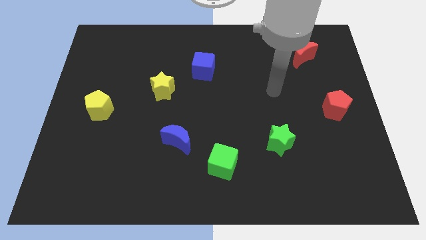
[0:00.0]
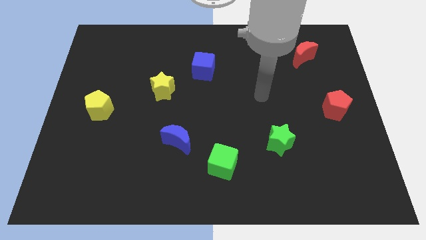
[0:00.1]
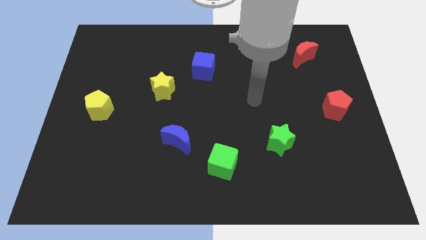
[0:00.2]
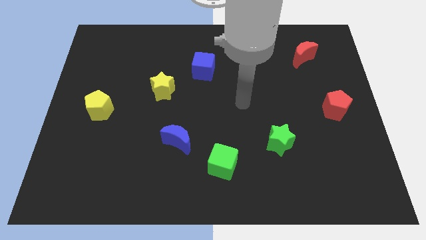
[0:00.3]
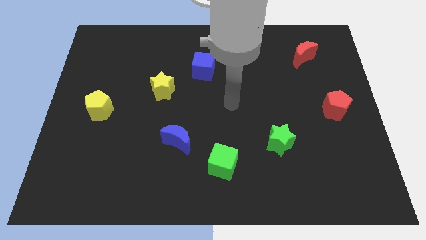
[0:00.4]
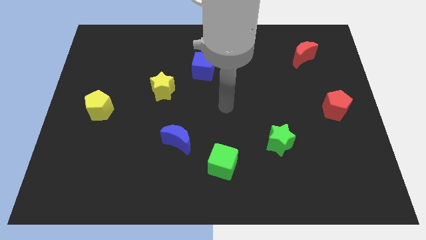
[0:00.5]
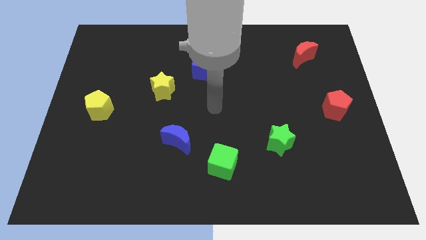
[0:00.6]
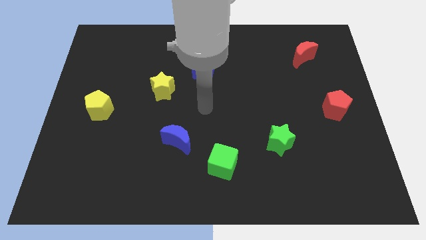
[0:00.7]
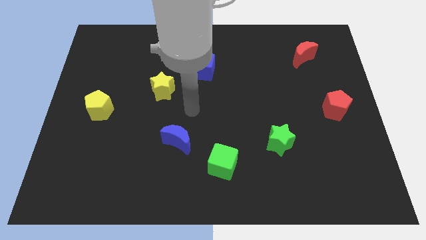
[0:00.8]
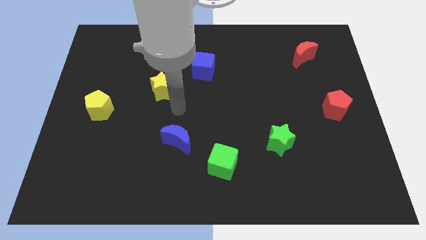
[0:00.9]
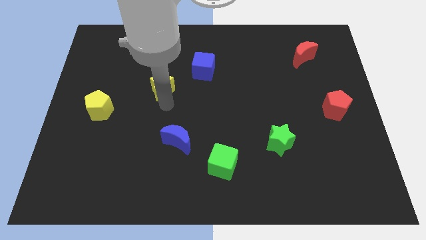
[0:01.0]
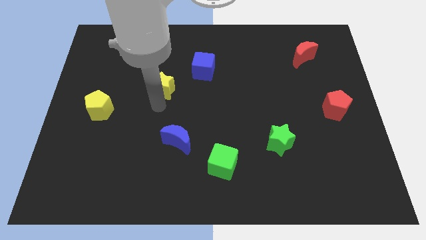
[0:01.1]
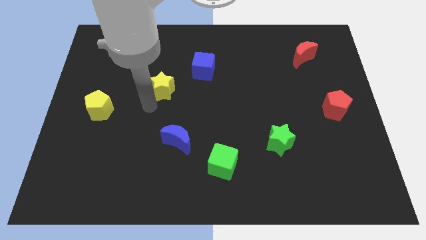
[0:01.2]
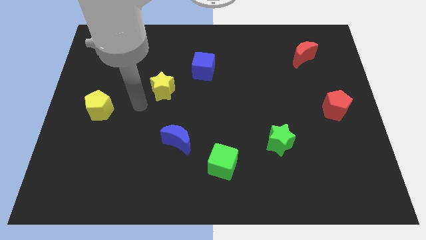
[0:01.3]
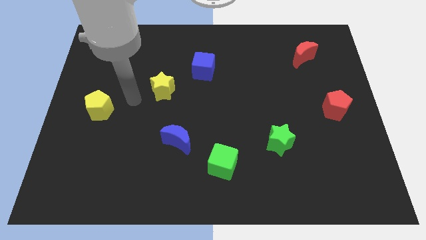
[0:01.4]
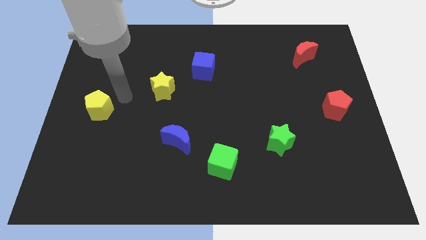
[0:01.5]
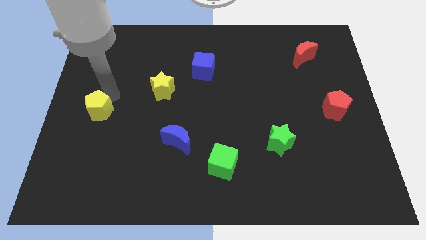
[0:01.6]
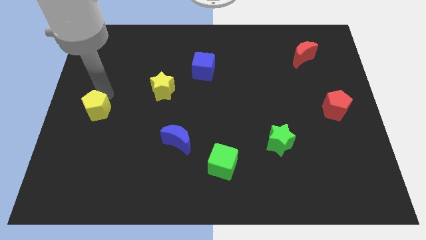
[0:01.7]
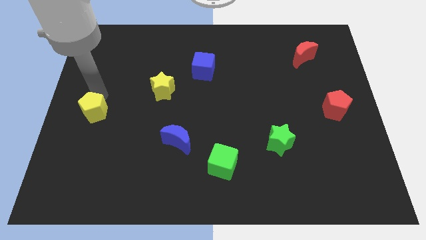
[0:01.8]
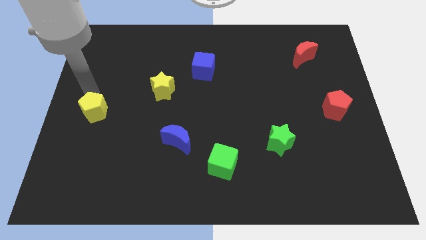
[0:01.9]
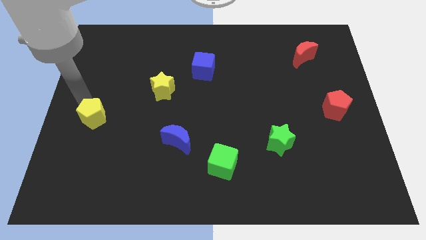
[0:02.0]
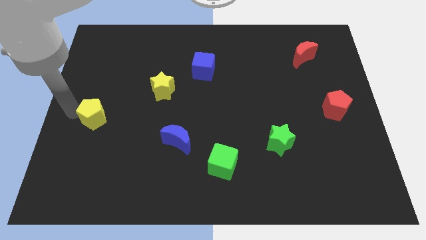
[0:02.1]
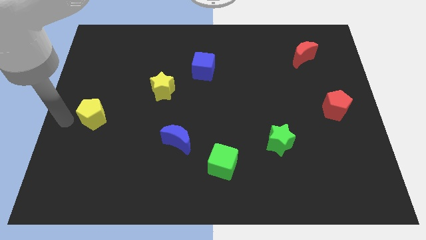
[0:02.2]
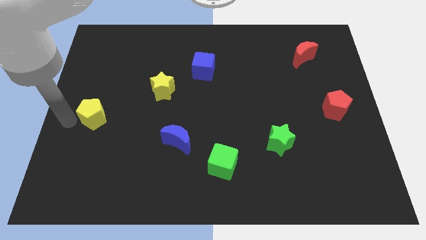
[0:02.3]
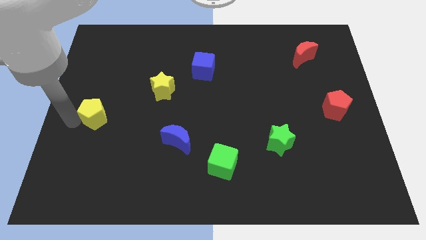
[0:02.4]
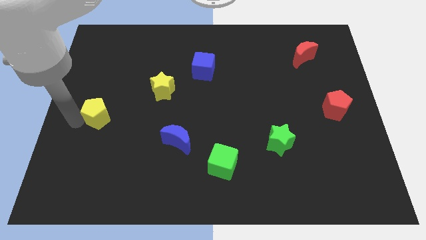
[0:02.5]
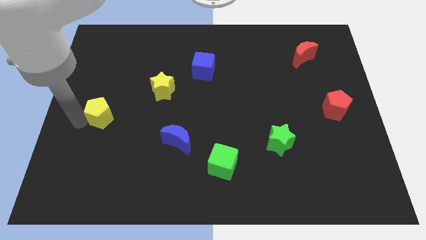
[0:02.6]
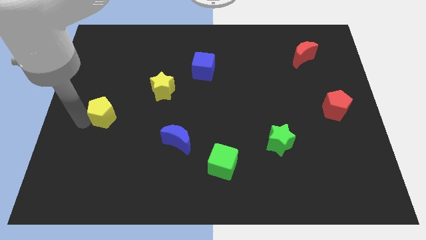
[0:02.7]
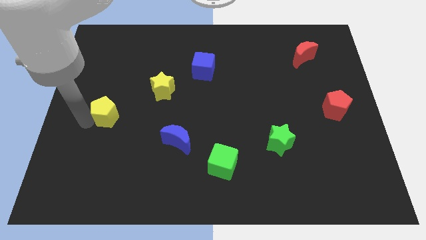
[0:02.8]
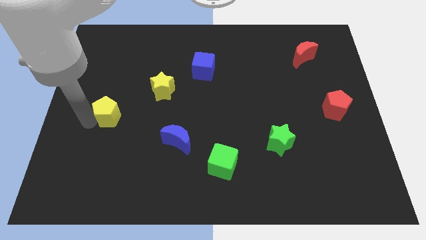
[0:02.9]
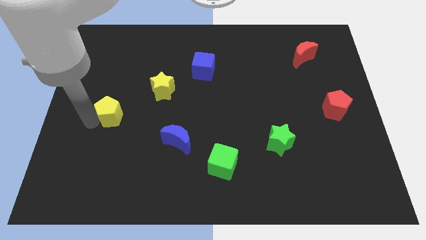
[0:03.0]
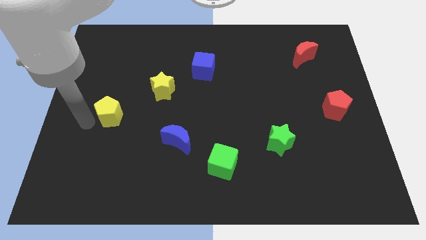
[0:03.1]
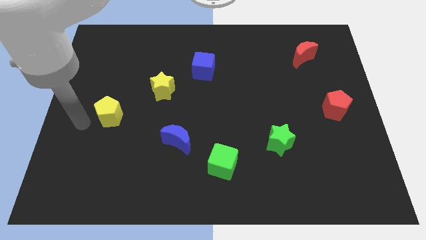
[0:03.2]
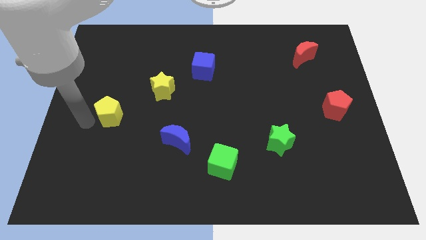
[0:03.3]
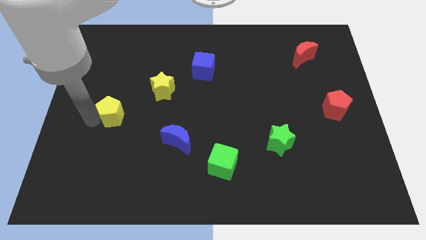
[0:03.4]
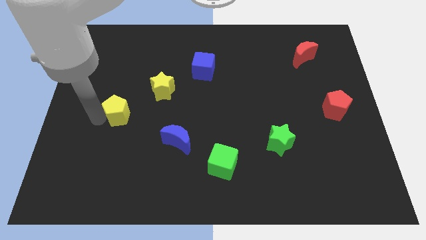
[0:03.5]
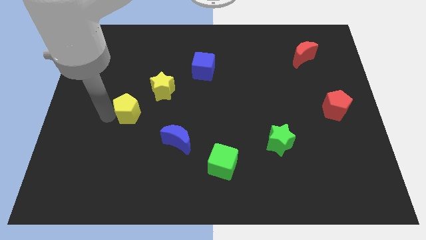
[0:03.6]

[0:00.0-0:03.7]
slide the yellow pentagon a little to the right

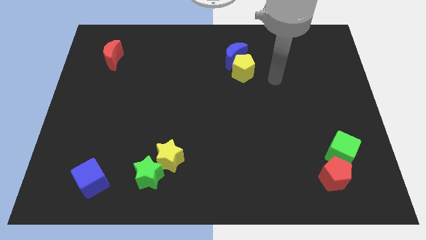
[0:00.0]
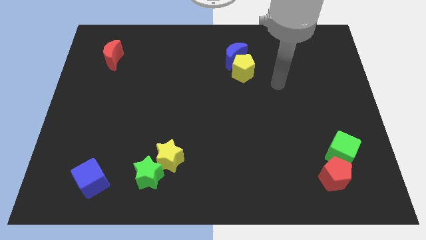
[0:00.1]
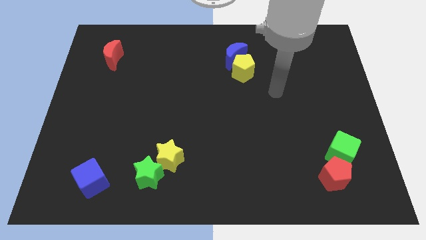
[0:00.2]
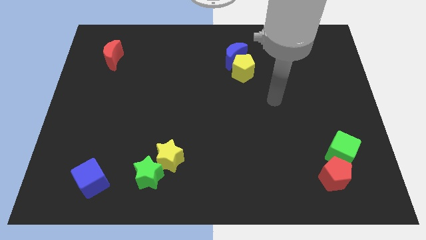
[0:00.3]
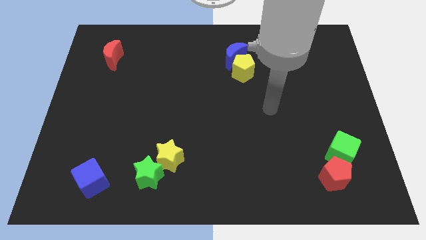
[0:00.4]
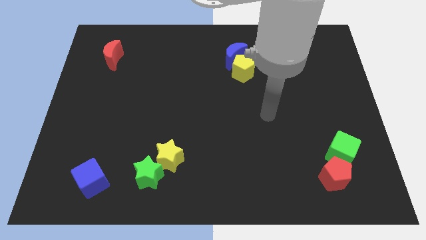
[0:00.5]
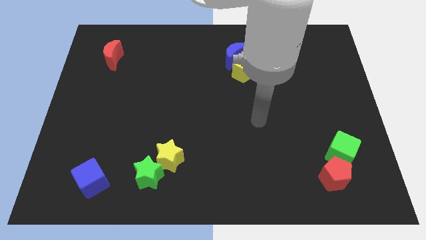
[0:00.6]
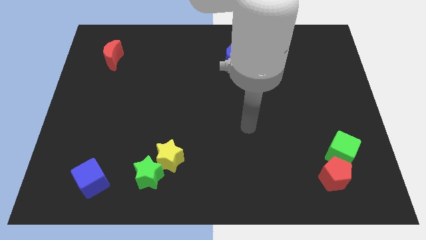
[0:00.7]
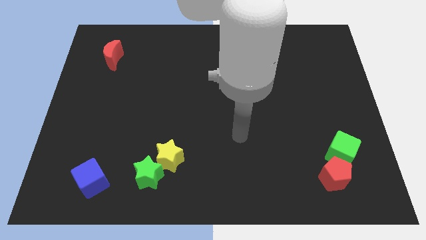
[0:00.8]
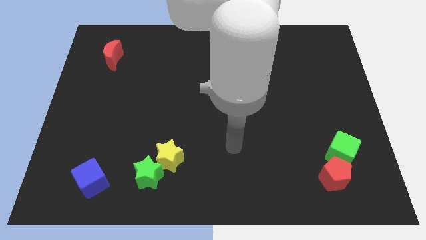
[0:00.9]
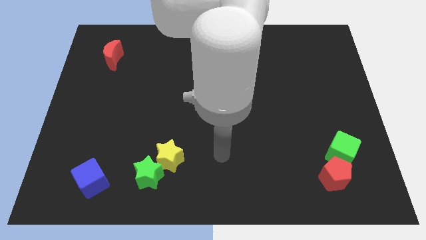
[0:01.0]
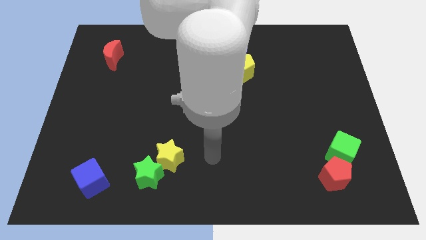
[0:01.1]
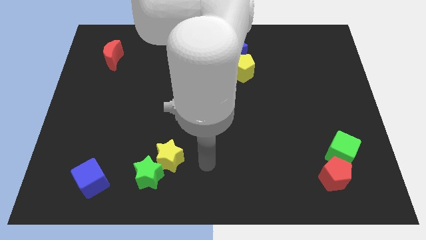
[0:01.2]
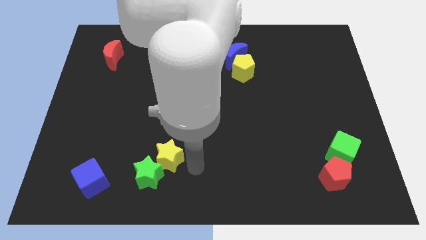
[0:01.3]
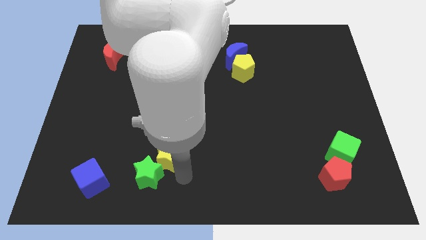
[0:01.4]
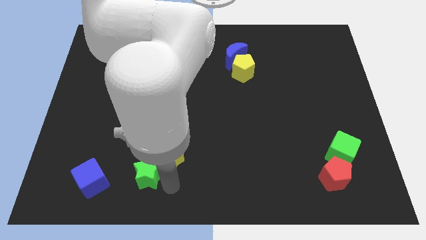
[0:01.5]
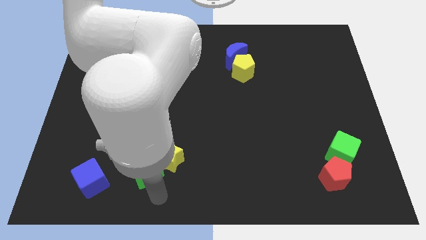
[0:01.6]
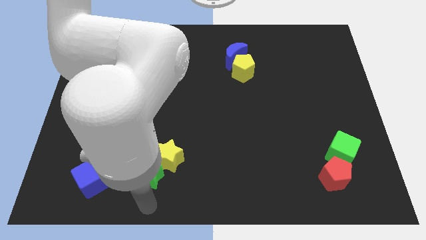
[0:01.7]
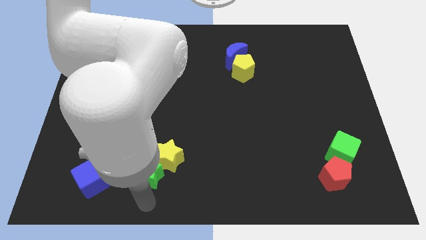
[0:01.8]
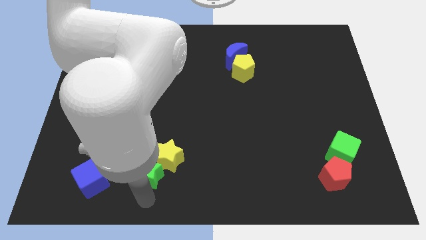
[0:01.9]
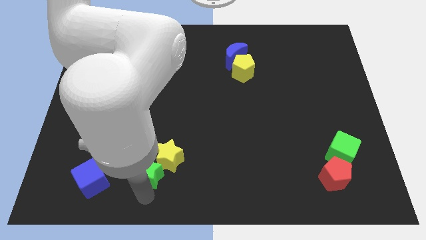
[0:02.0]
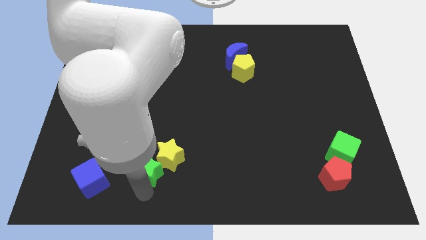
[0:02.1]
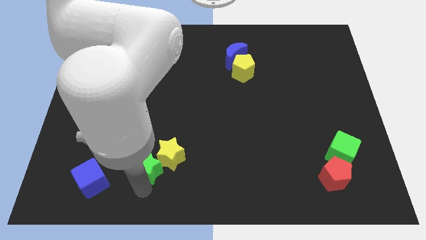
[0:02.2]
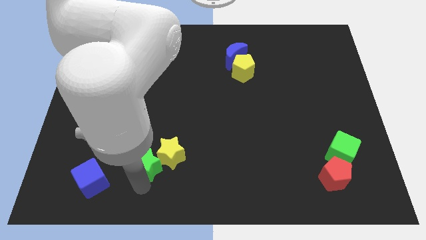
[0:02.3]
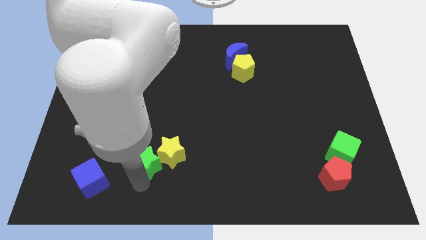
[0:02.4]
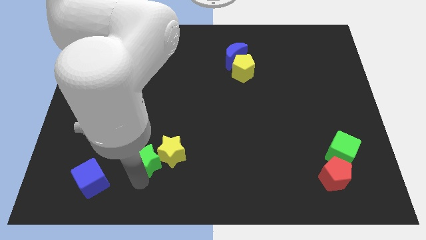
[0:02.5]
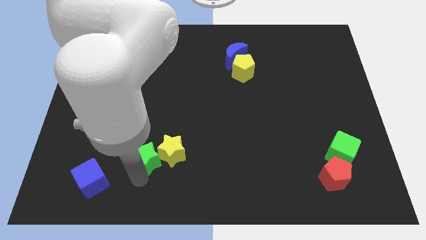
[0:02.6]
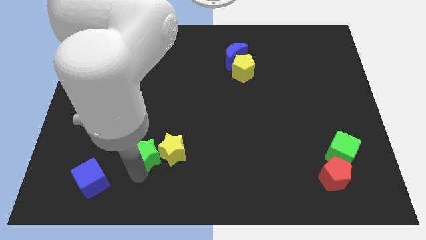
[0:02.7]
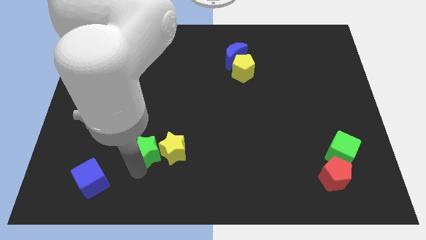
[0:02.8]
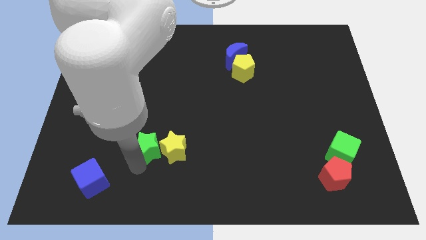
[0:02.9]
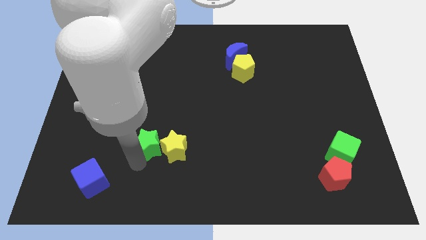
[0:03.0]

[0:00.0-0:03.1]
slightly push the green star upwards

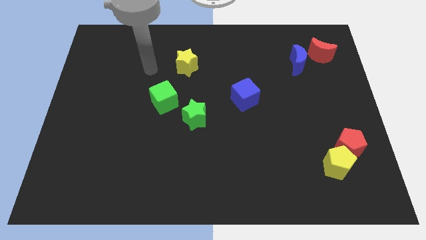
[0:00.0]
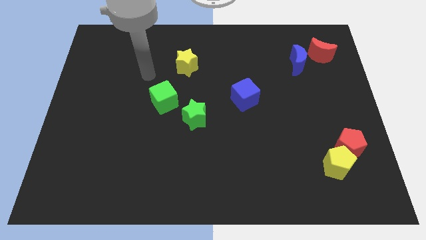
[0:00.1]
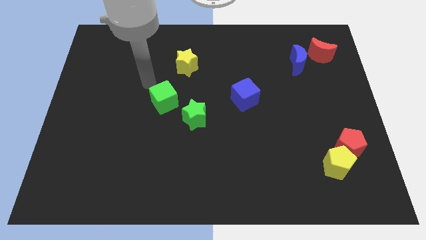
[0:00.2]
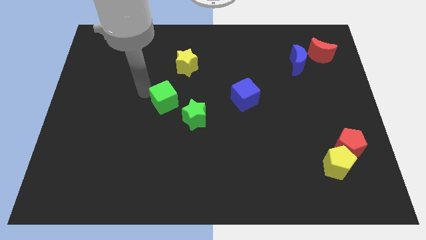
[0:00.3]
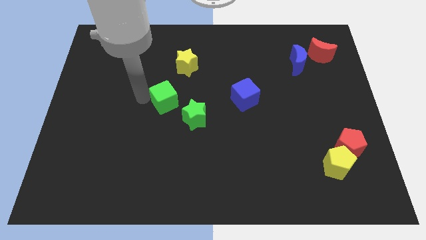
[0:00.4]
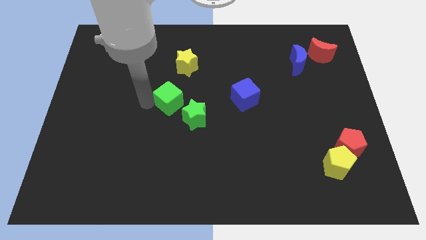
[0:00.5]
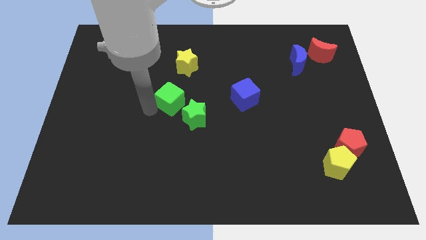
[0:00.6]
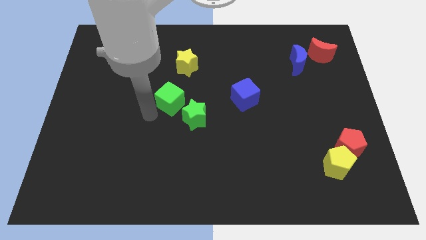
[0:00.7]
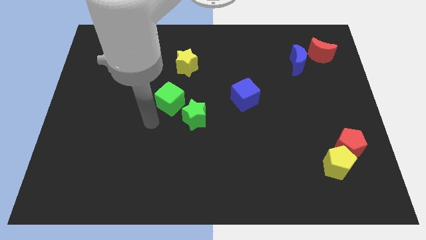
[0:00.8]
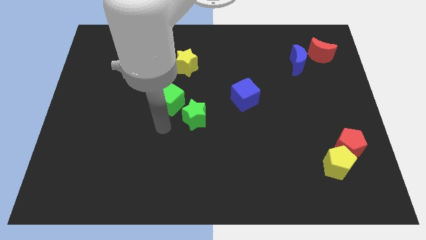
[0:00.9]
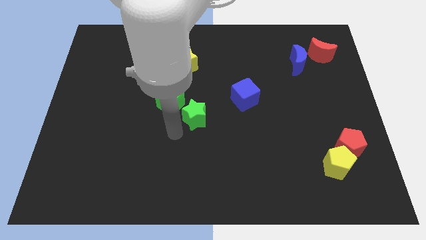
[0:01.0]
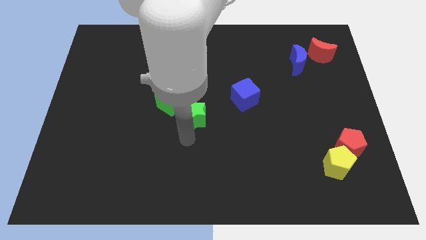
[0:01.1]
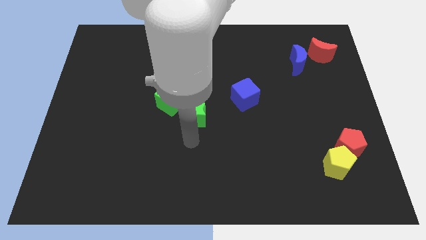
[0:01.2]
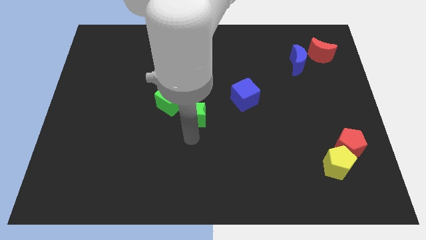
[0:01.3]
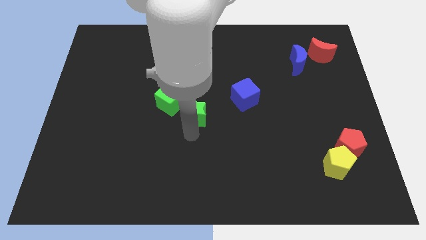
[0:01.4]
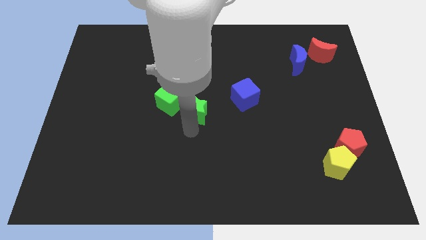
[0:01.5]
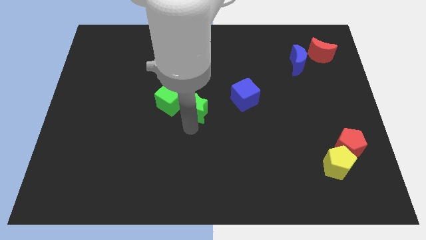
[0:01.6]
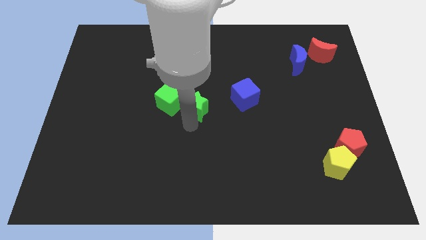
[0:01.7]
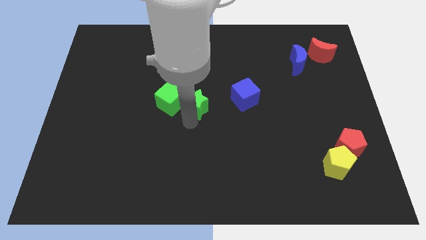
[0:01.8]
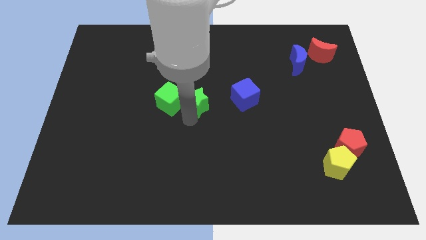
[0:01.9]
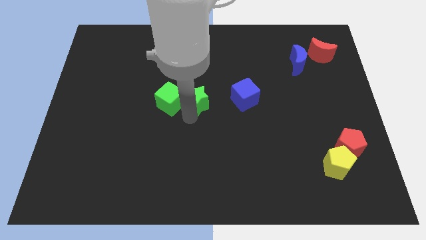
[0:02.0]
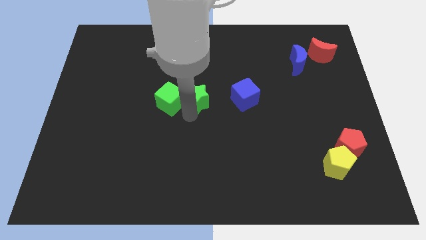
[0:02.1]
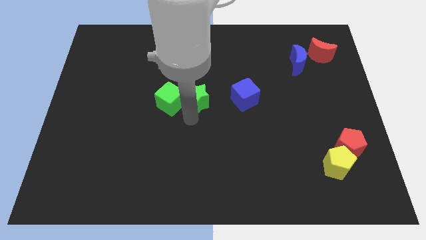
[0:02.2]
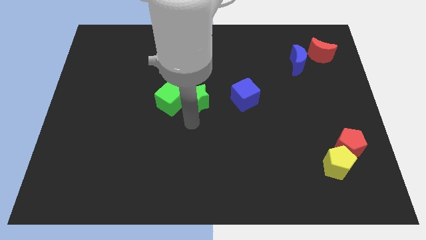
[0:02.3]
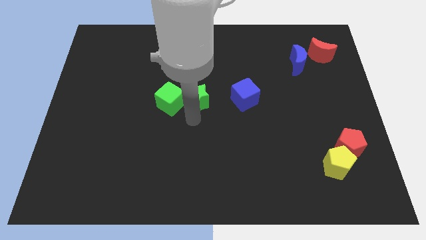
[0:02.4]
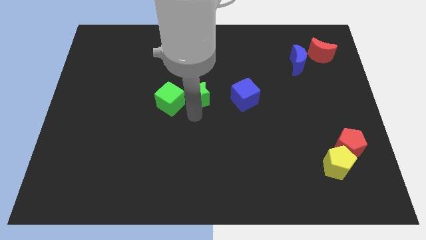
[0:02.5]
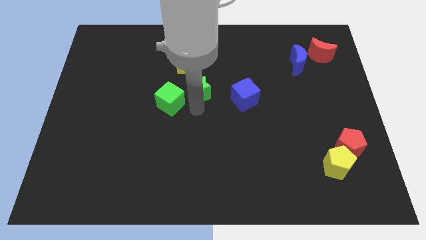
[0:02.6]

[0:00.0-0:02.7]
slightly slide the green star up
